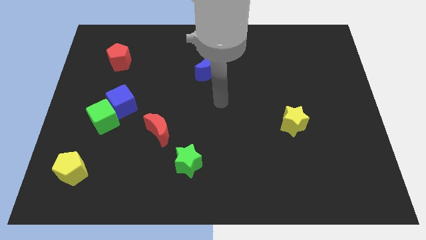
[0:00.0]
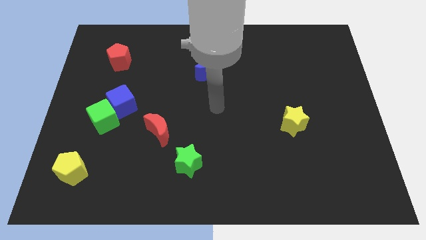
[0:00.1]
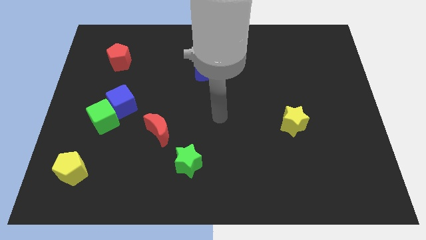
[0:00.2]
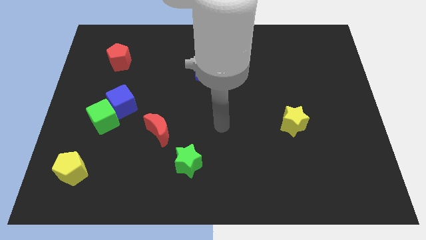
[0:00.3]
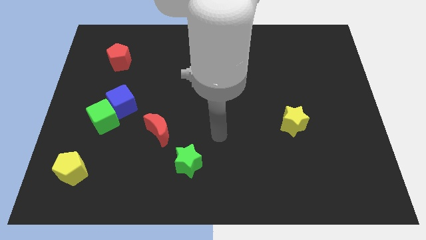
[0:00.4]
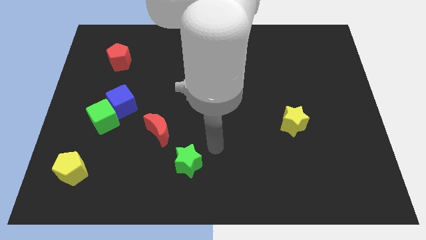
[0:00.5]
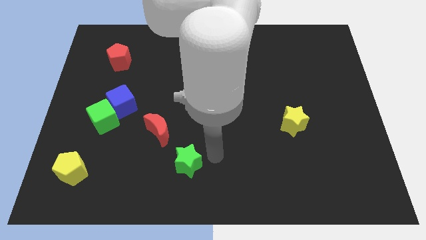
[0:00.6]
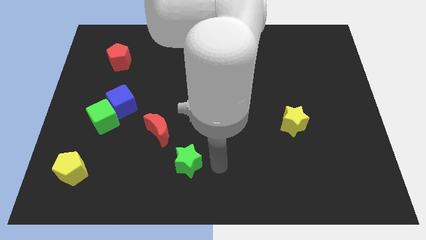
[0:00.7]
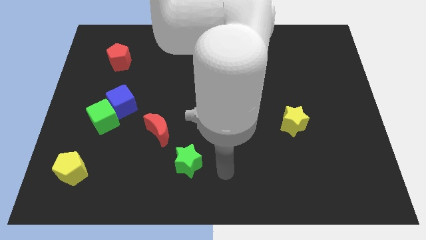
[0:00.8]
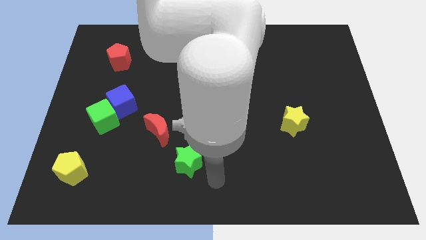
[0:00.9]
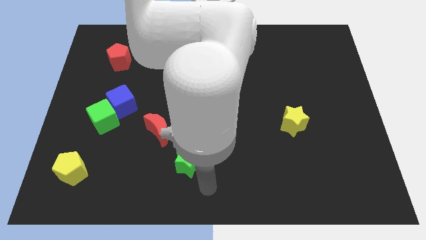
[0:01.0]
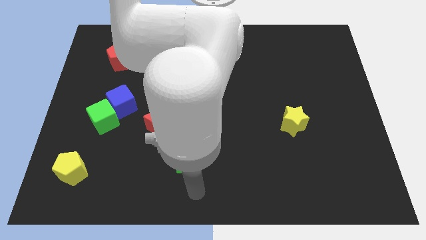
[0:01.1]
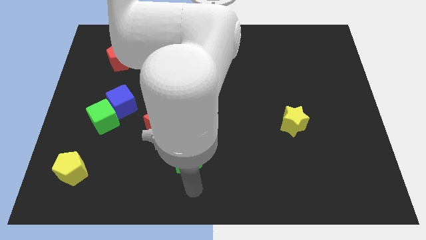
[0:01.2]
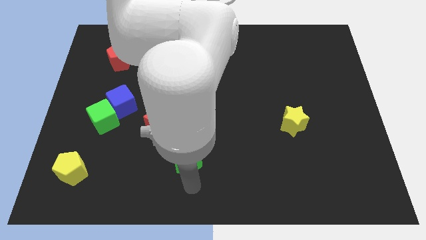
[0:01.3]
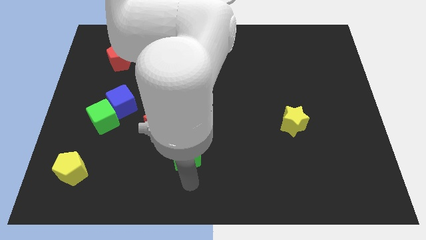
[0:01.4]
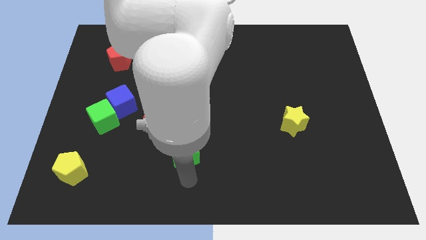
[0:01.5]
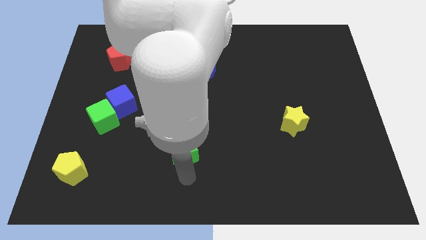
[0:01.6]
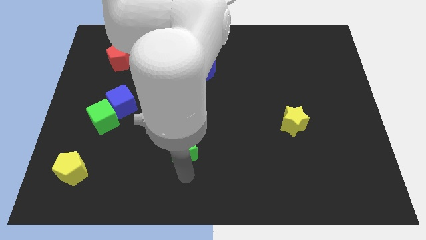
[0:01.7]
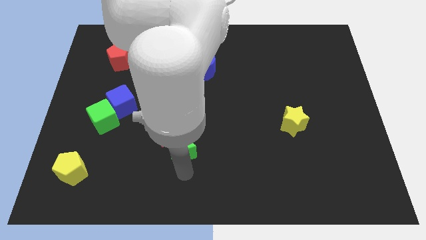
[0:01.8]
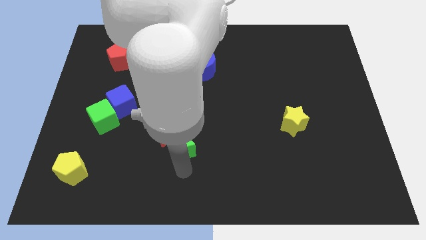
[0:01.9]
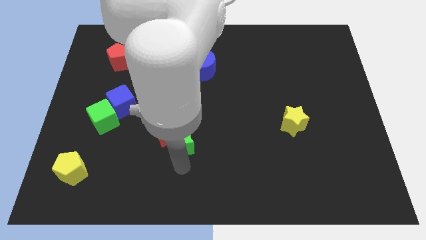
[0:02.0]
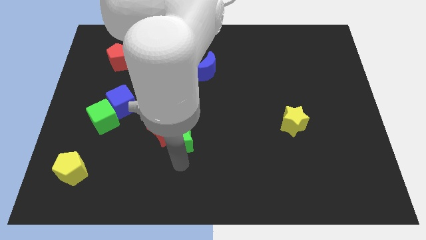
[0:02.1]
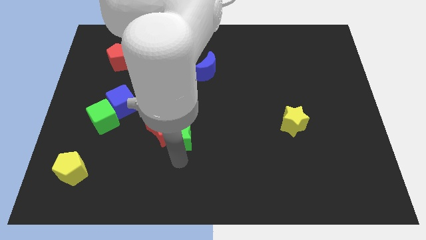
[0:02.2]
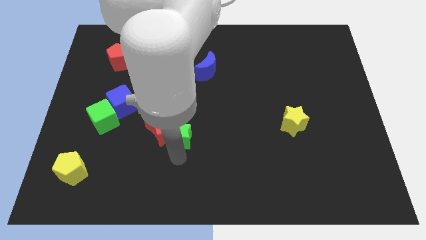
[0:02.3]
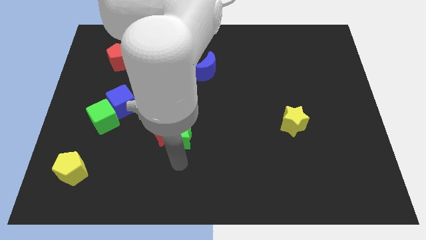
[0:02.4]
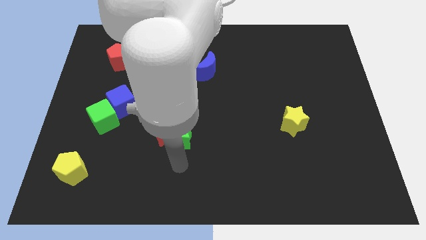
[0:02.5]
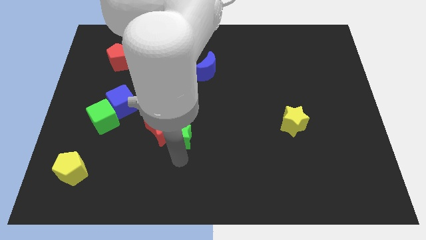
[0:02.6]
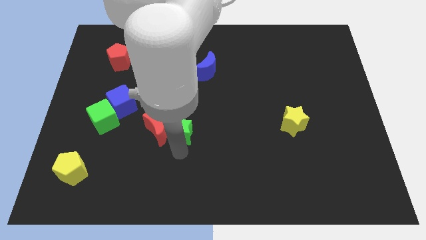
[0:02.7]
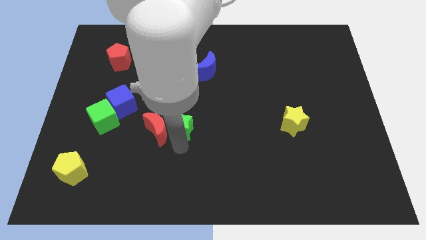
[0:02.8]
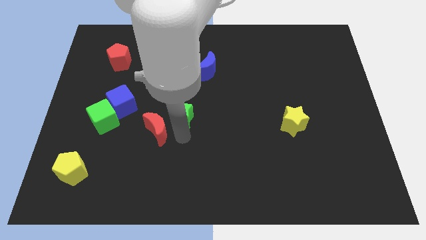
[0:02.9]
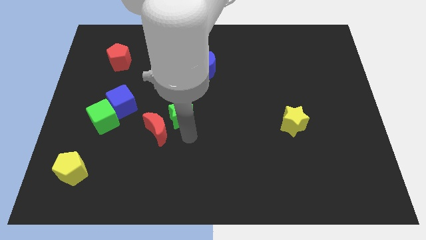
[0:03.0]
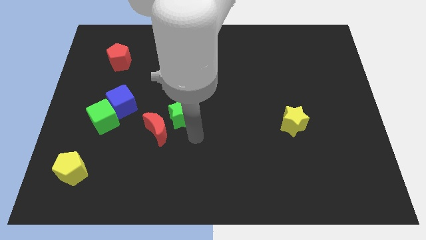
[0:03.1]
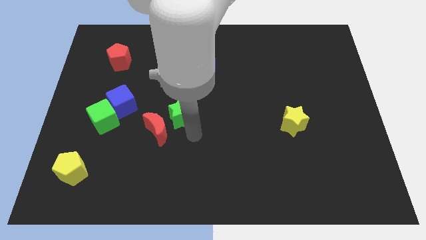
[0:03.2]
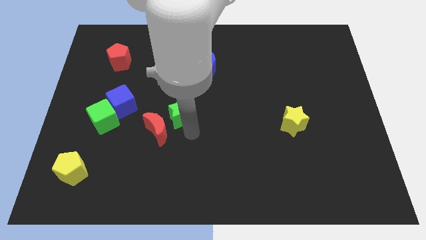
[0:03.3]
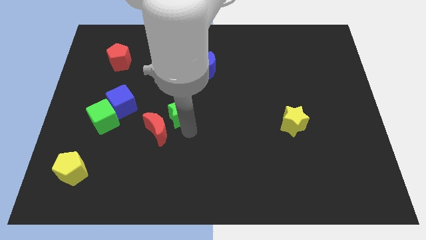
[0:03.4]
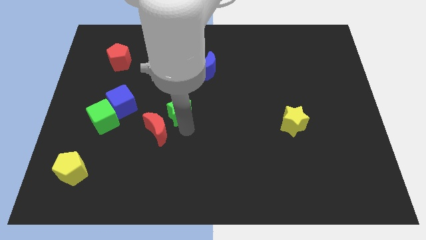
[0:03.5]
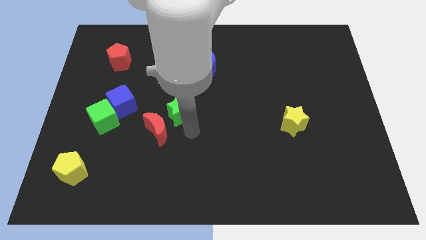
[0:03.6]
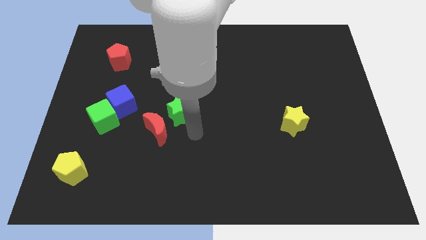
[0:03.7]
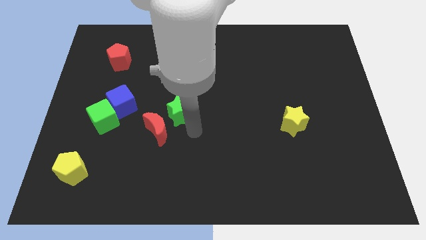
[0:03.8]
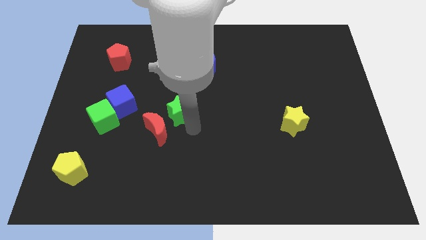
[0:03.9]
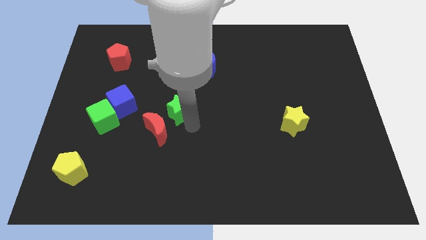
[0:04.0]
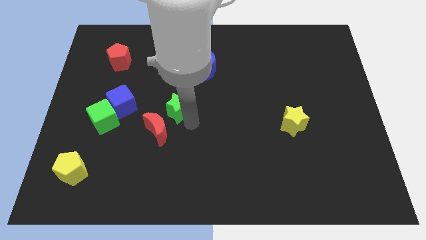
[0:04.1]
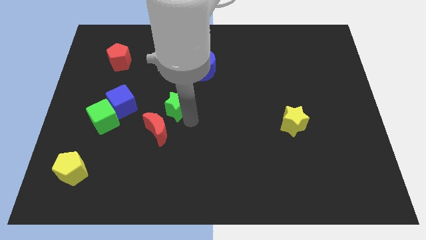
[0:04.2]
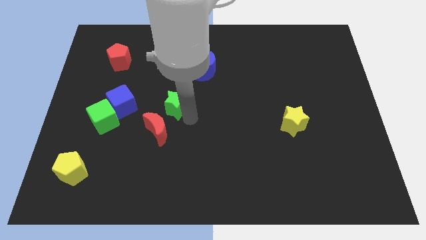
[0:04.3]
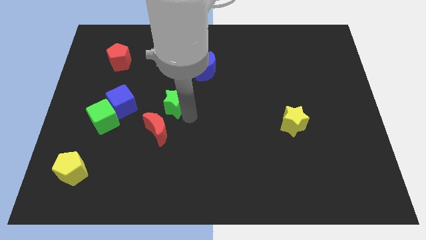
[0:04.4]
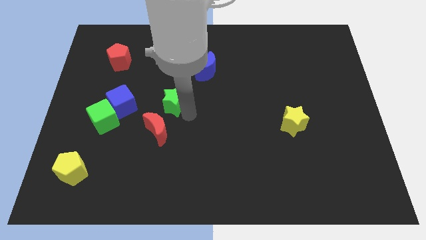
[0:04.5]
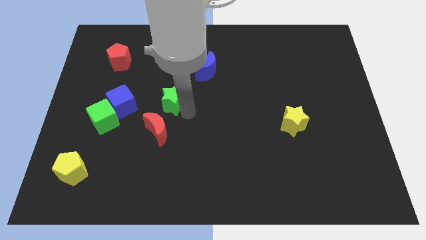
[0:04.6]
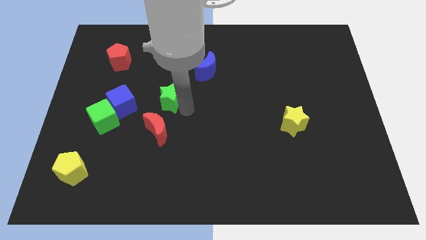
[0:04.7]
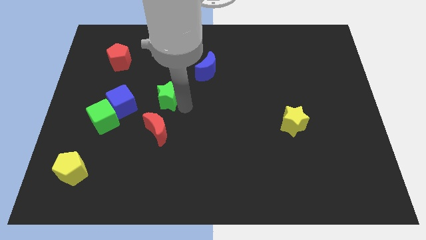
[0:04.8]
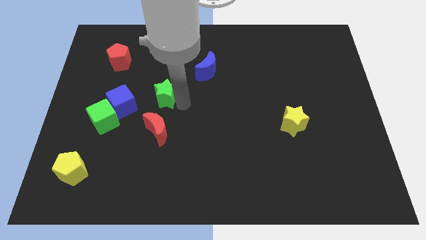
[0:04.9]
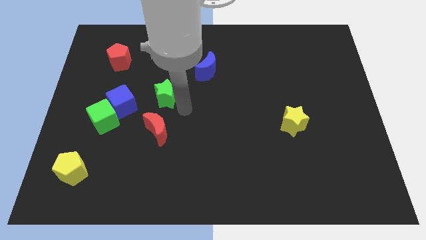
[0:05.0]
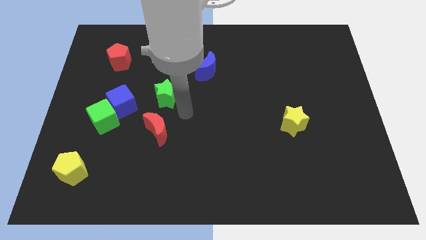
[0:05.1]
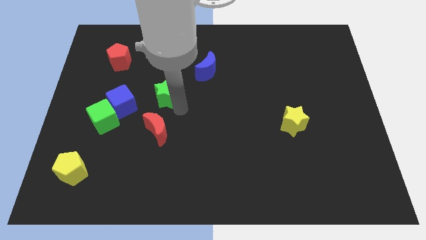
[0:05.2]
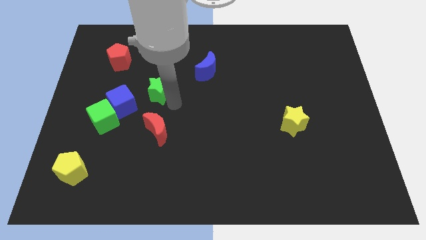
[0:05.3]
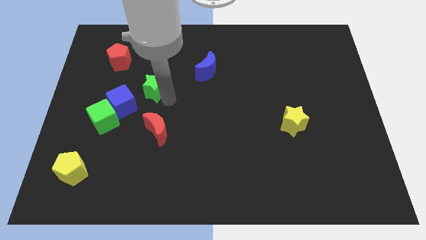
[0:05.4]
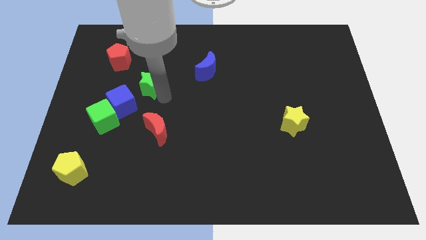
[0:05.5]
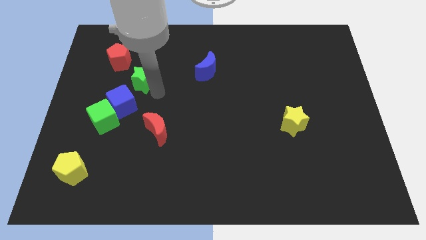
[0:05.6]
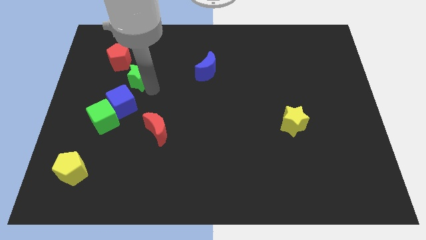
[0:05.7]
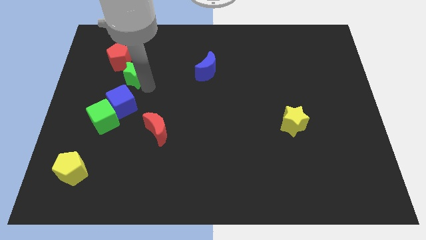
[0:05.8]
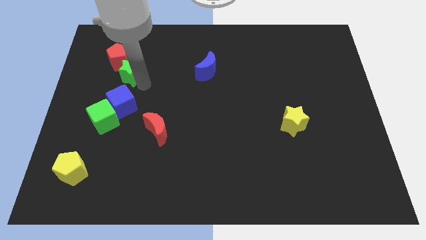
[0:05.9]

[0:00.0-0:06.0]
slide the green star next to the red pentagon
